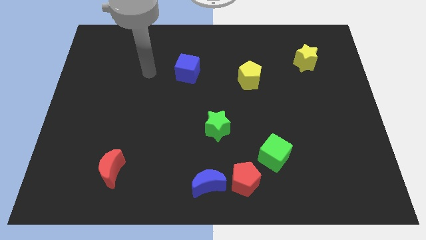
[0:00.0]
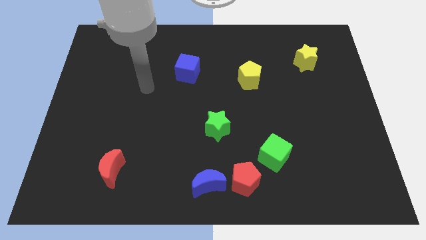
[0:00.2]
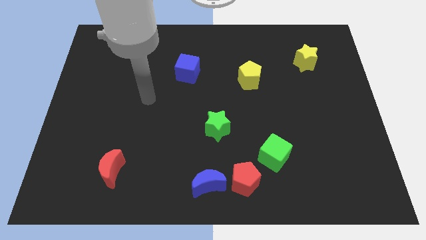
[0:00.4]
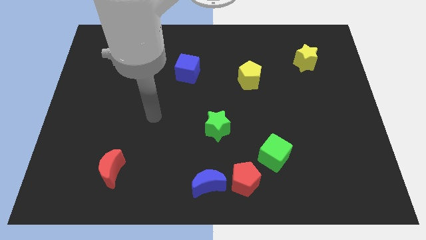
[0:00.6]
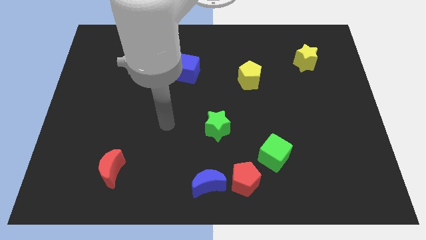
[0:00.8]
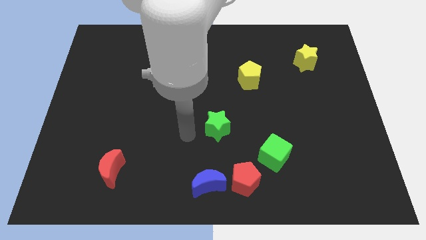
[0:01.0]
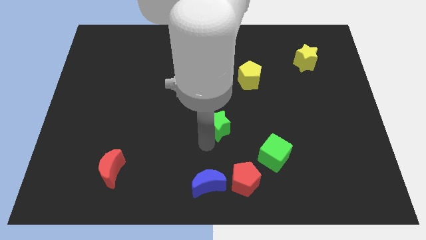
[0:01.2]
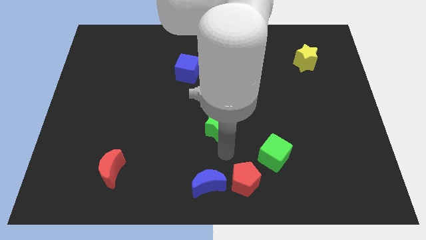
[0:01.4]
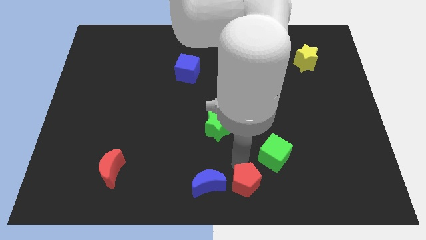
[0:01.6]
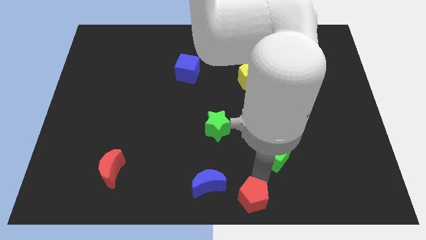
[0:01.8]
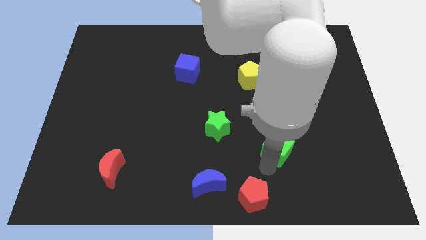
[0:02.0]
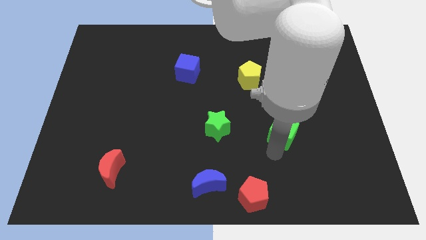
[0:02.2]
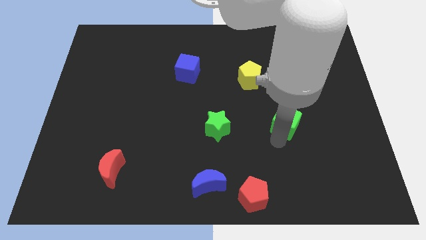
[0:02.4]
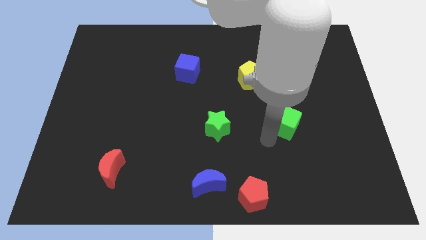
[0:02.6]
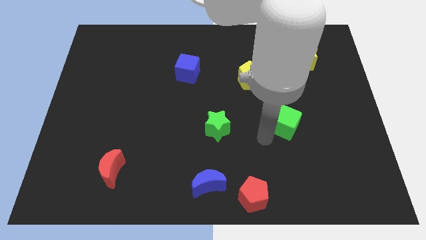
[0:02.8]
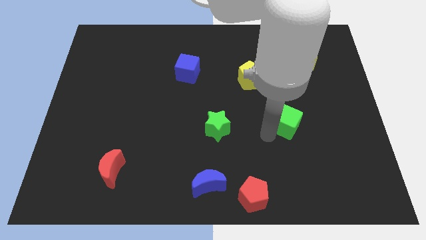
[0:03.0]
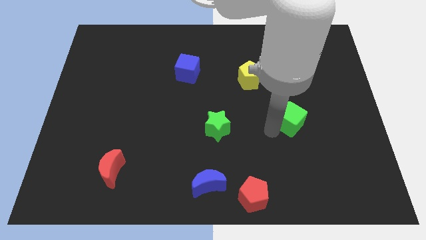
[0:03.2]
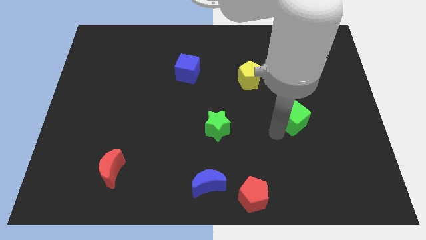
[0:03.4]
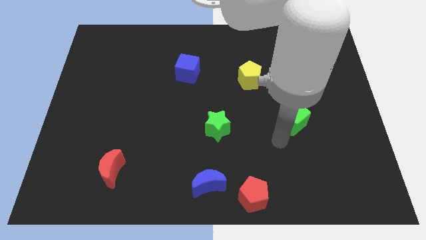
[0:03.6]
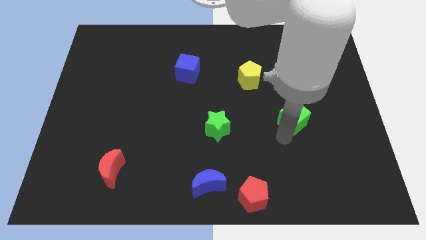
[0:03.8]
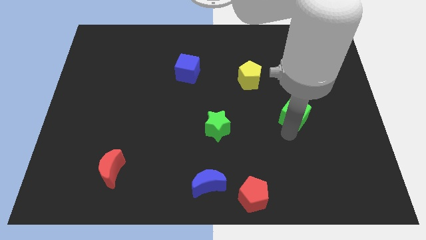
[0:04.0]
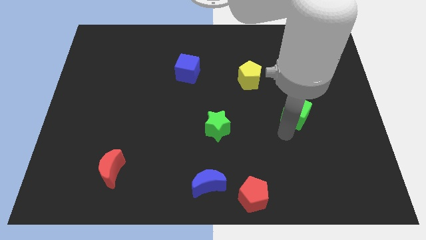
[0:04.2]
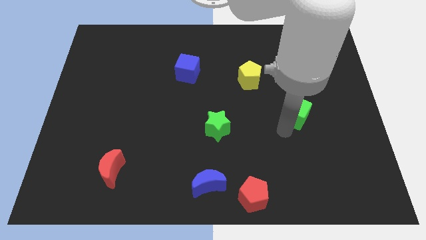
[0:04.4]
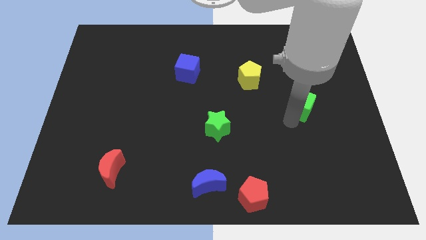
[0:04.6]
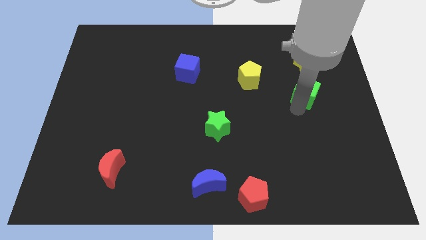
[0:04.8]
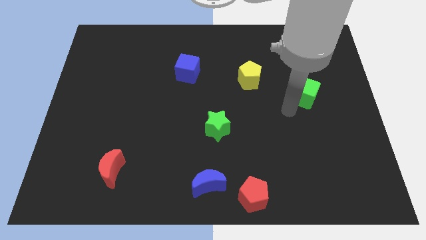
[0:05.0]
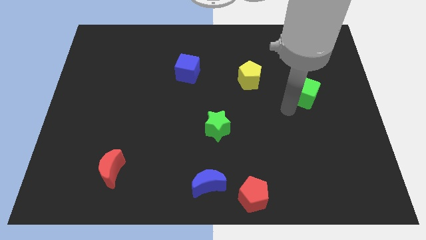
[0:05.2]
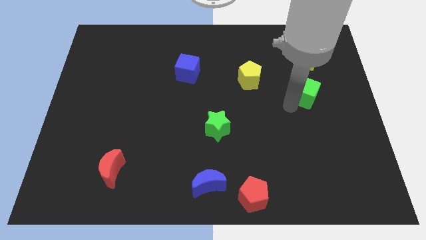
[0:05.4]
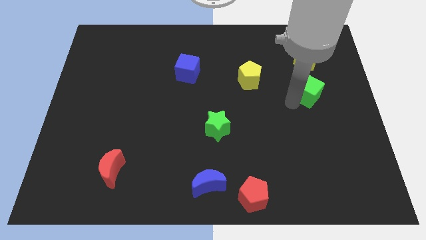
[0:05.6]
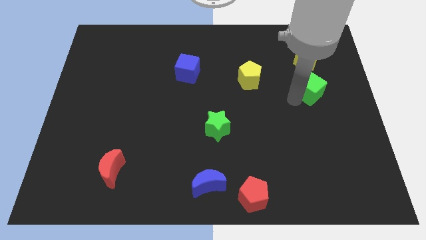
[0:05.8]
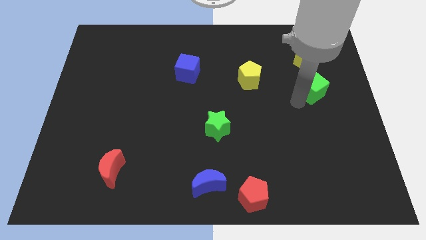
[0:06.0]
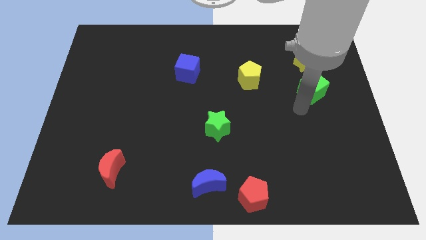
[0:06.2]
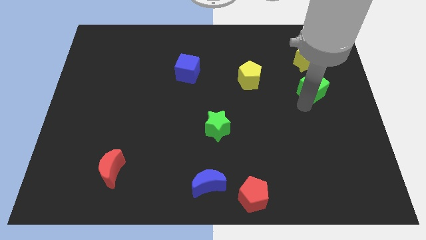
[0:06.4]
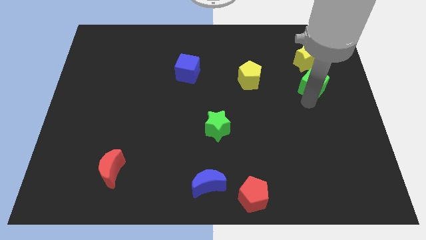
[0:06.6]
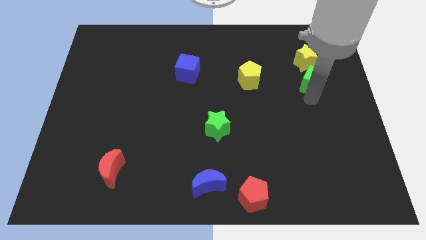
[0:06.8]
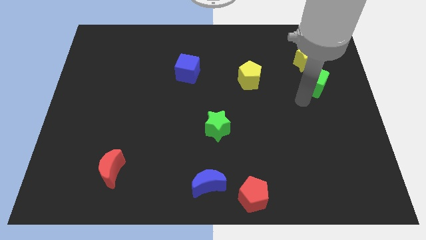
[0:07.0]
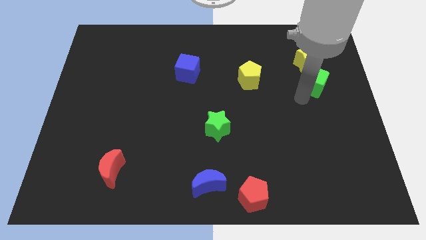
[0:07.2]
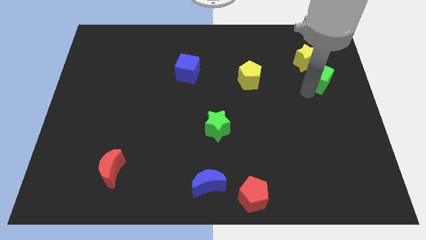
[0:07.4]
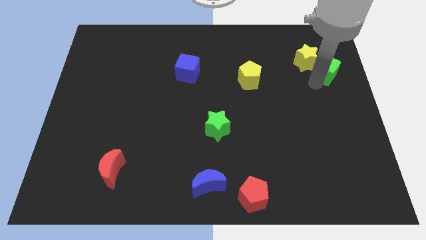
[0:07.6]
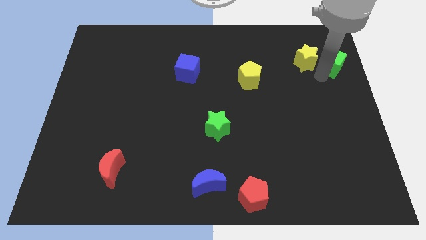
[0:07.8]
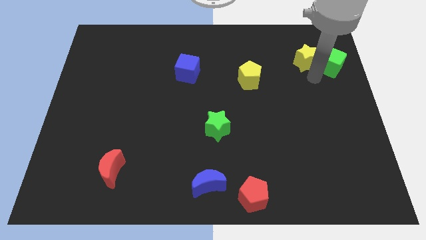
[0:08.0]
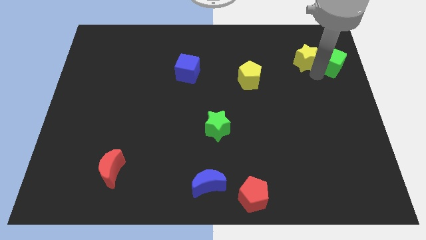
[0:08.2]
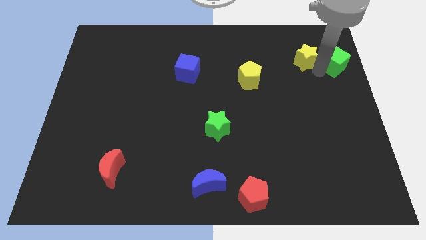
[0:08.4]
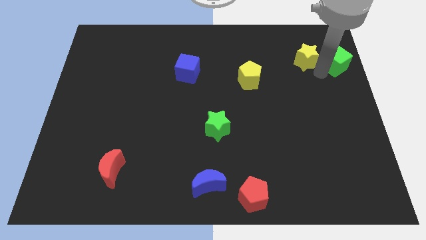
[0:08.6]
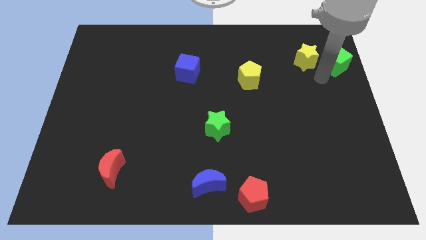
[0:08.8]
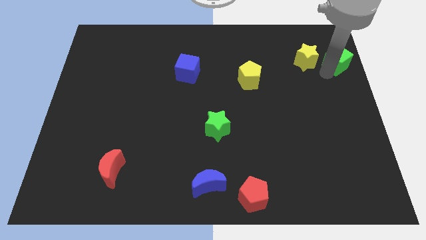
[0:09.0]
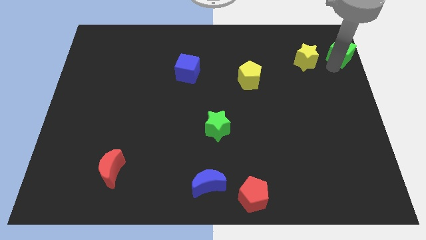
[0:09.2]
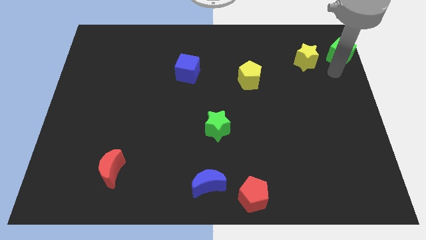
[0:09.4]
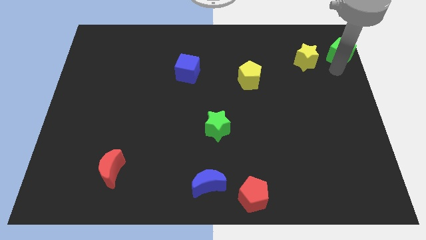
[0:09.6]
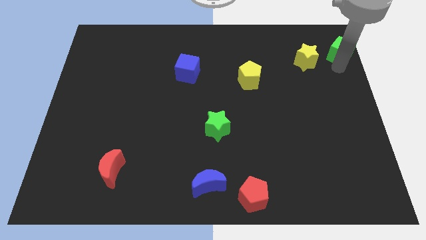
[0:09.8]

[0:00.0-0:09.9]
slide the green cube to the upper right corner

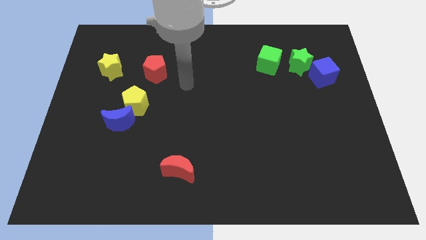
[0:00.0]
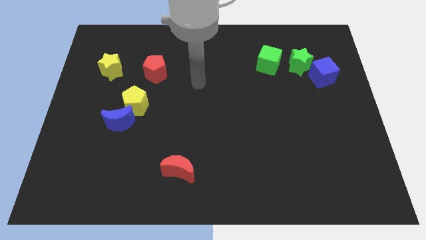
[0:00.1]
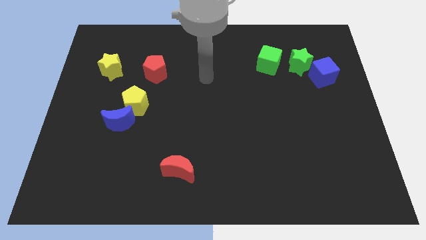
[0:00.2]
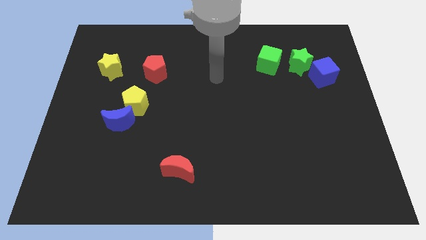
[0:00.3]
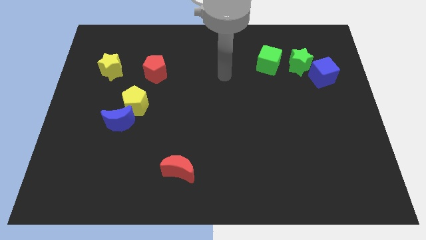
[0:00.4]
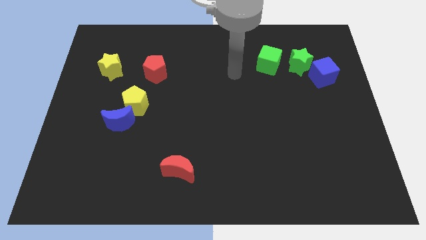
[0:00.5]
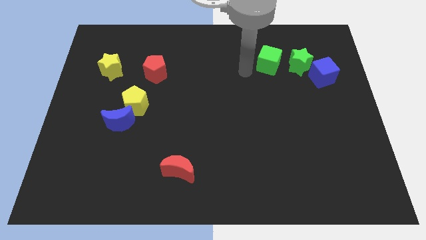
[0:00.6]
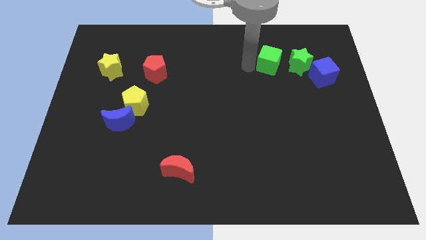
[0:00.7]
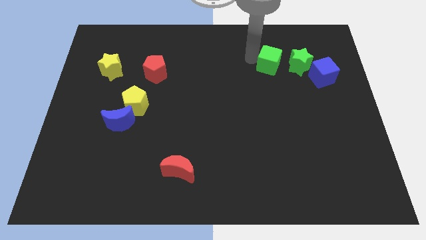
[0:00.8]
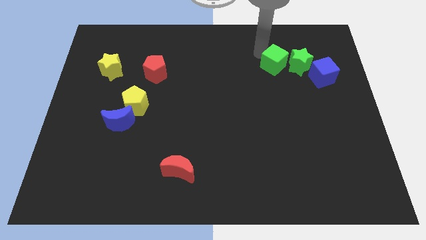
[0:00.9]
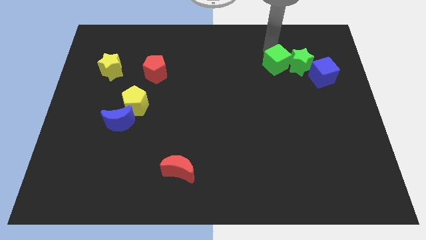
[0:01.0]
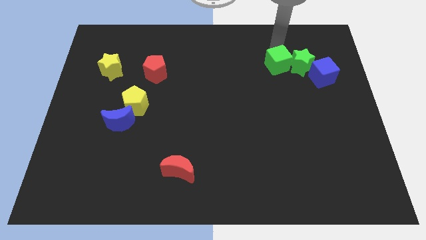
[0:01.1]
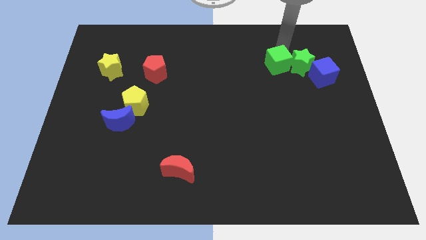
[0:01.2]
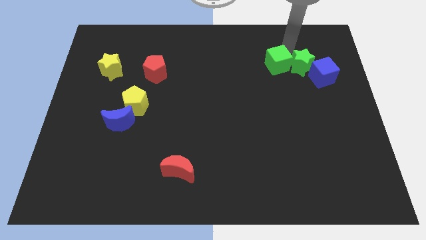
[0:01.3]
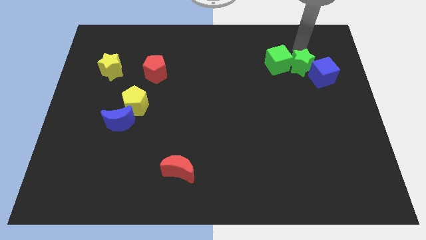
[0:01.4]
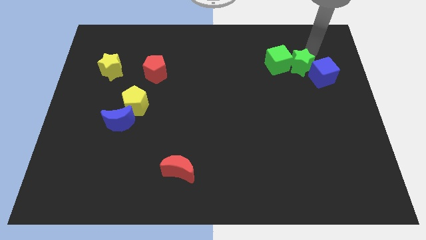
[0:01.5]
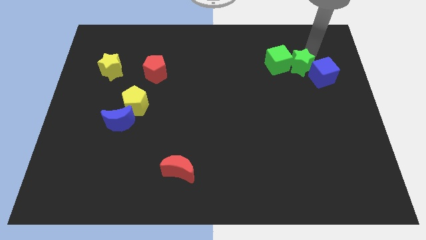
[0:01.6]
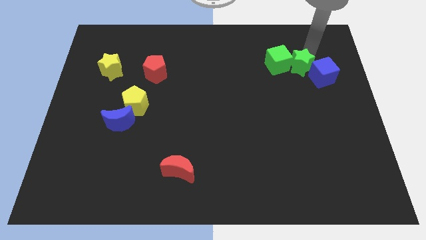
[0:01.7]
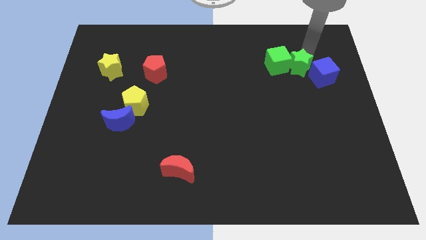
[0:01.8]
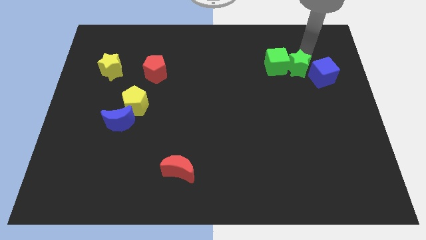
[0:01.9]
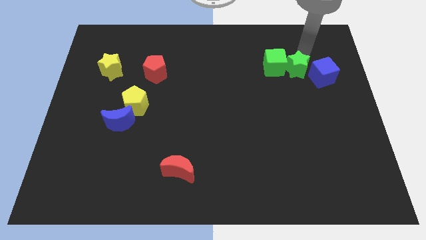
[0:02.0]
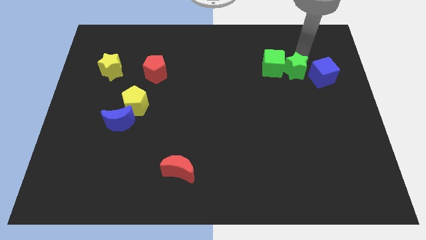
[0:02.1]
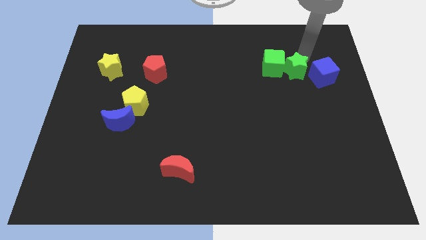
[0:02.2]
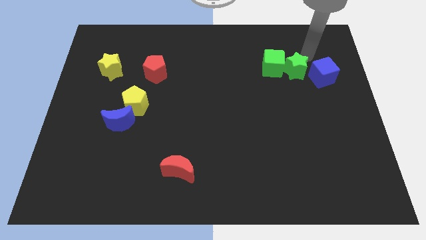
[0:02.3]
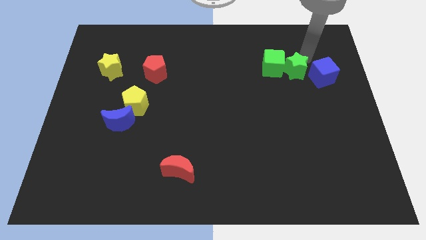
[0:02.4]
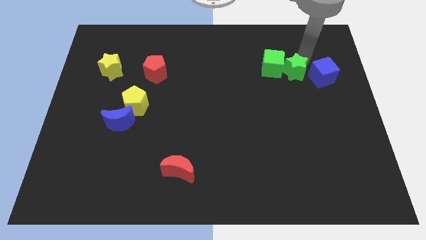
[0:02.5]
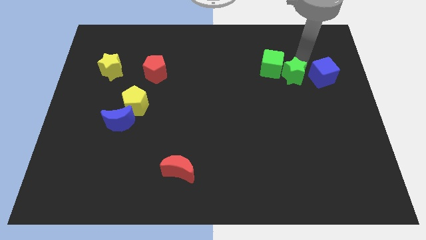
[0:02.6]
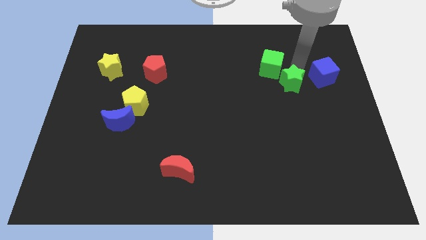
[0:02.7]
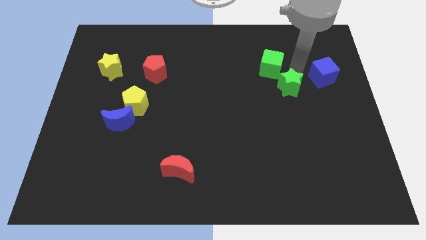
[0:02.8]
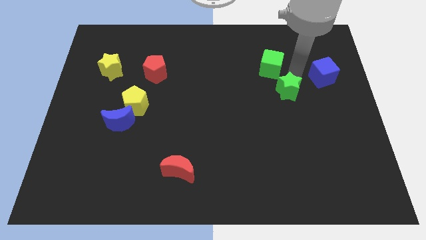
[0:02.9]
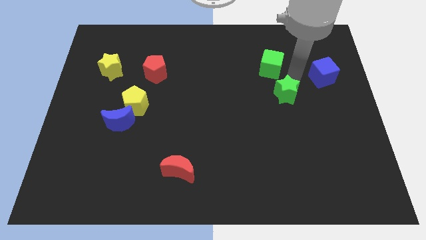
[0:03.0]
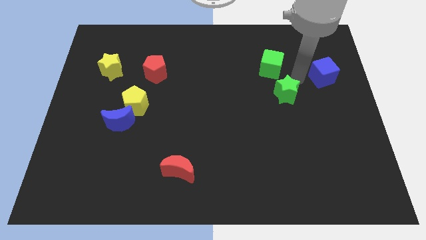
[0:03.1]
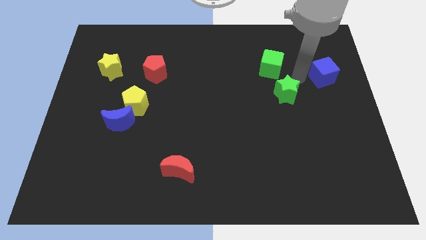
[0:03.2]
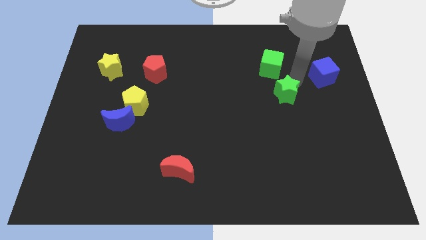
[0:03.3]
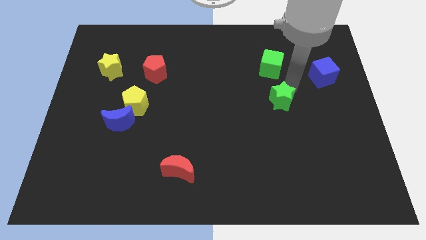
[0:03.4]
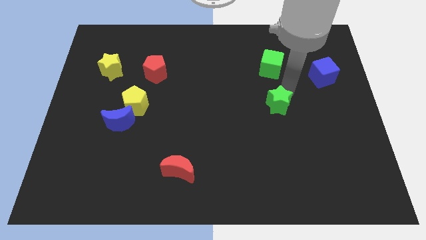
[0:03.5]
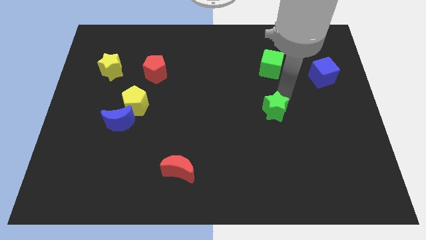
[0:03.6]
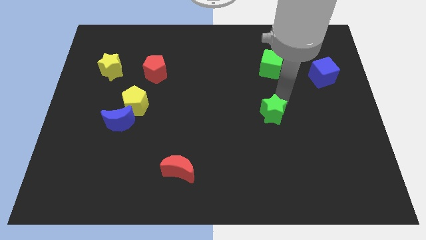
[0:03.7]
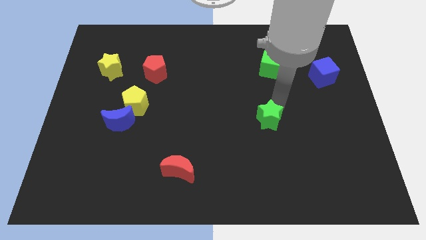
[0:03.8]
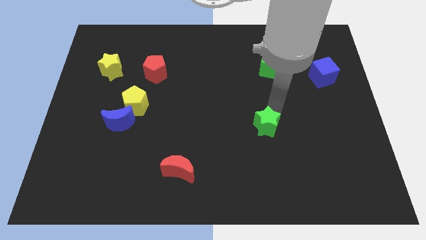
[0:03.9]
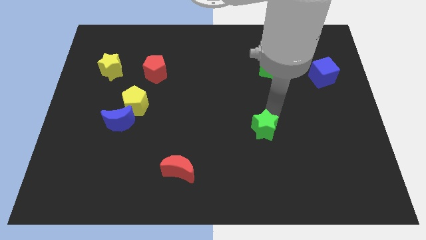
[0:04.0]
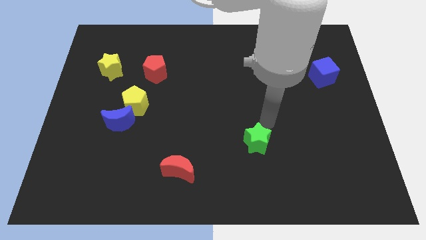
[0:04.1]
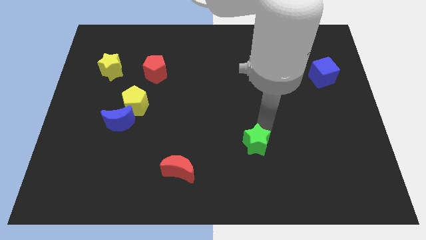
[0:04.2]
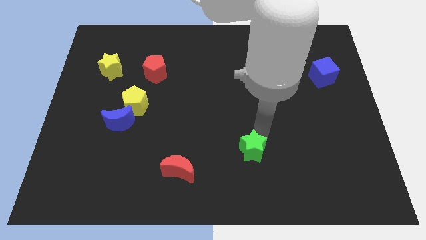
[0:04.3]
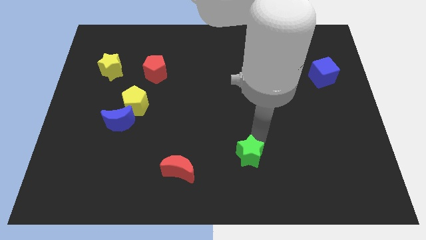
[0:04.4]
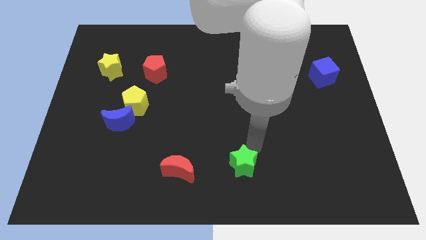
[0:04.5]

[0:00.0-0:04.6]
push the green star to the bottom
